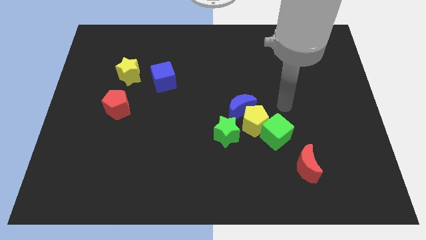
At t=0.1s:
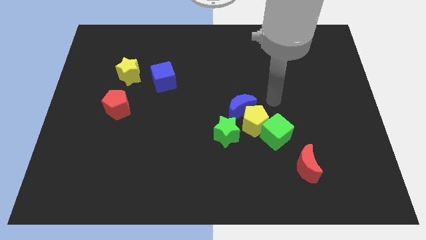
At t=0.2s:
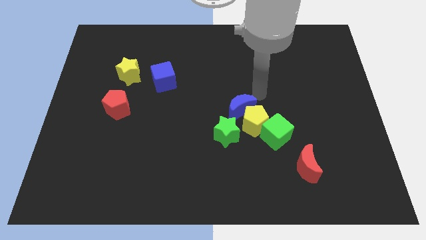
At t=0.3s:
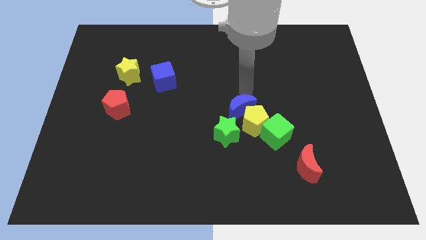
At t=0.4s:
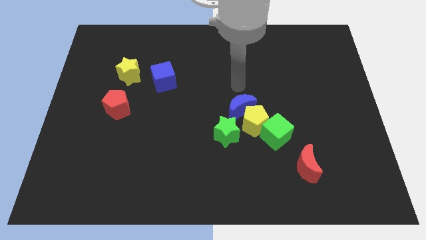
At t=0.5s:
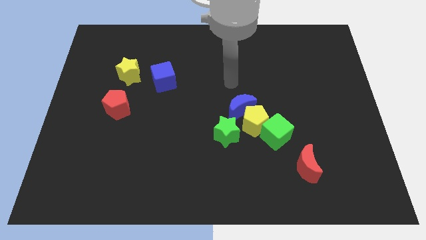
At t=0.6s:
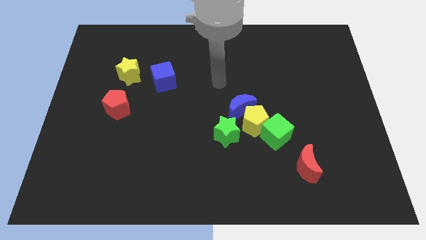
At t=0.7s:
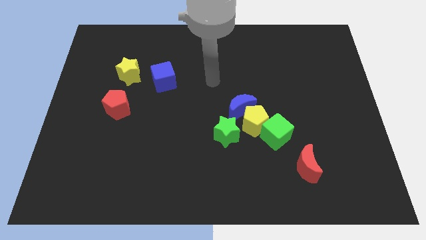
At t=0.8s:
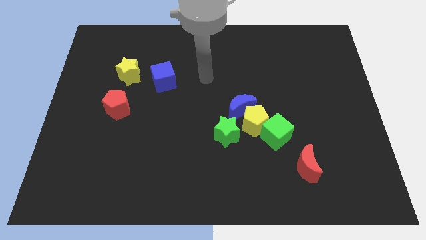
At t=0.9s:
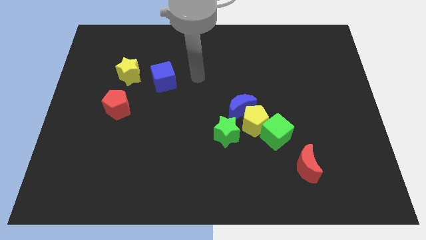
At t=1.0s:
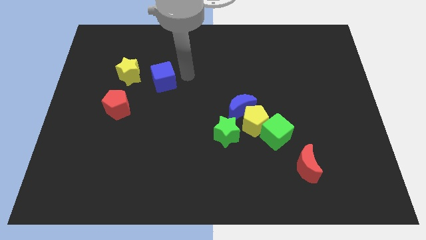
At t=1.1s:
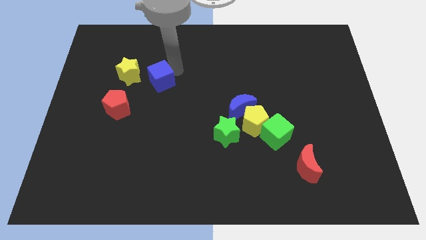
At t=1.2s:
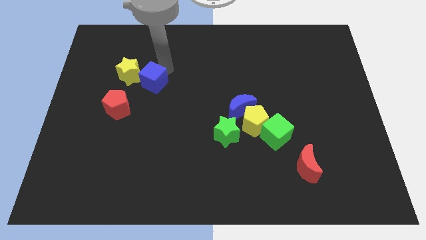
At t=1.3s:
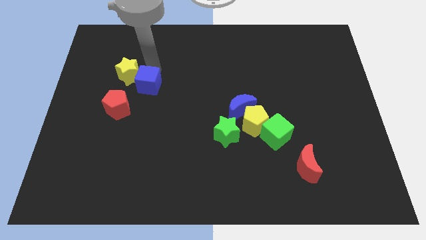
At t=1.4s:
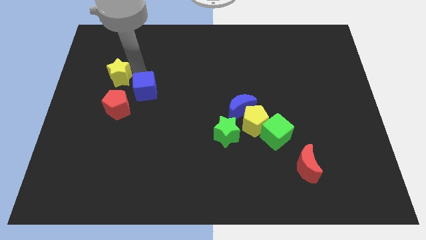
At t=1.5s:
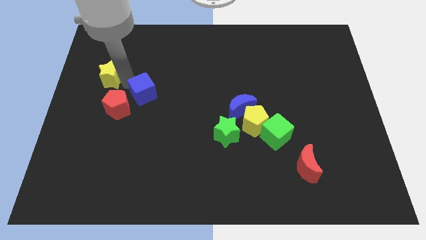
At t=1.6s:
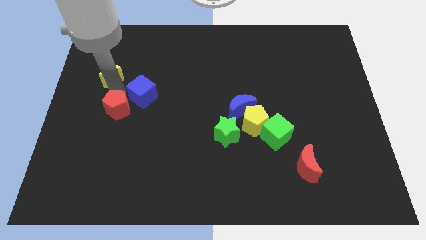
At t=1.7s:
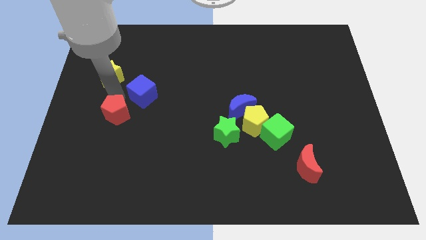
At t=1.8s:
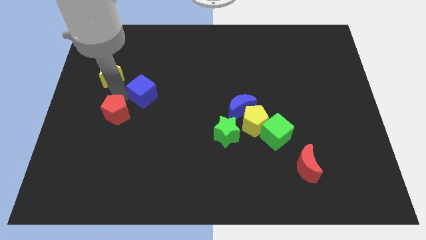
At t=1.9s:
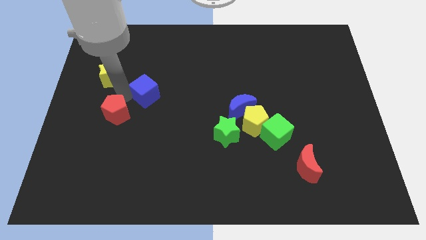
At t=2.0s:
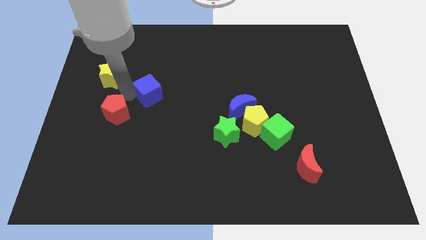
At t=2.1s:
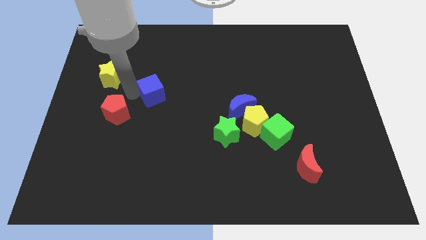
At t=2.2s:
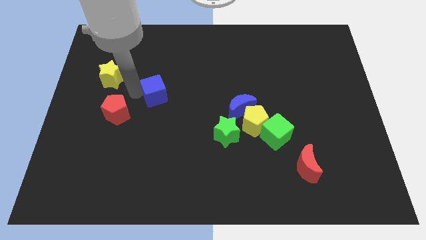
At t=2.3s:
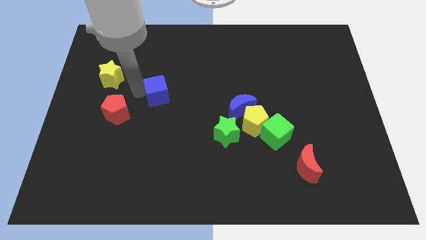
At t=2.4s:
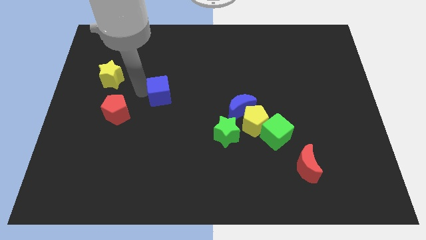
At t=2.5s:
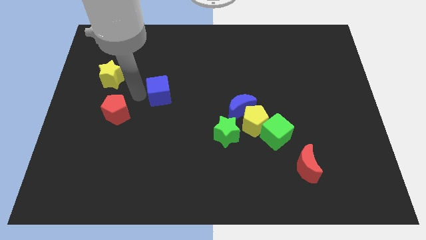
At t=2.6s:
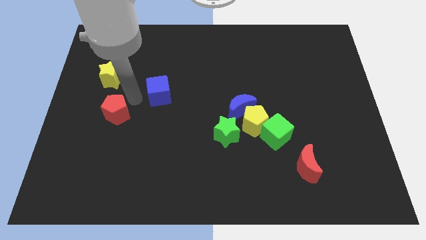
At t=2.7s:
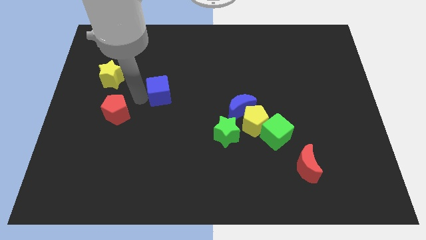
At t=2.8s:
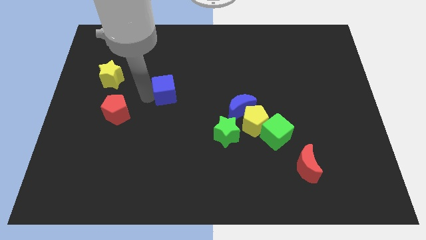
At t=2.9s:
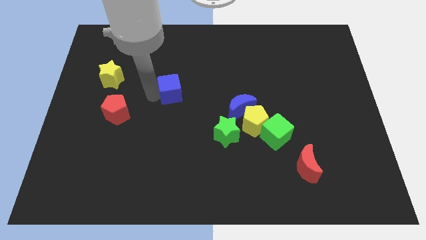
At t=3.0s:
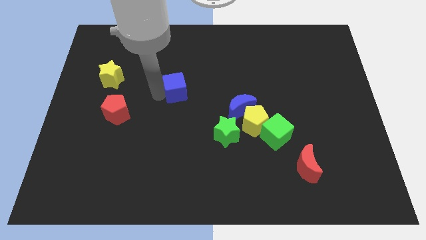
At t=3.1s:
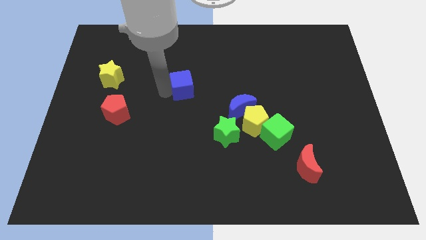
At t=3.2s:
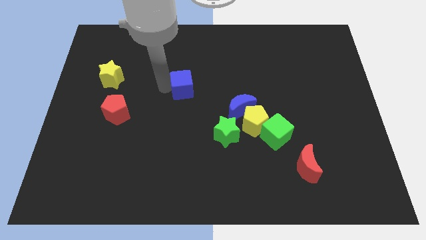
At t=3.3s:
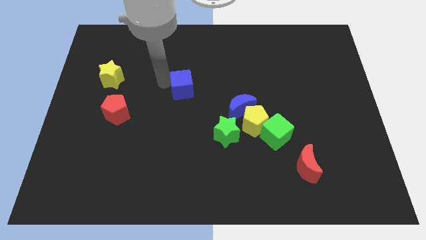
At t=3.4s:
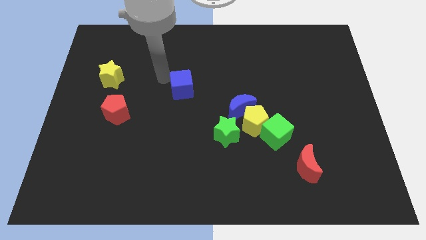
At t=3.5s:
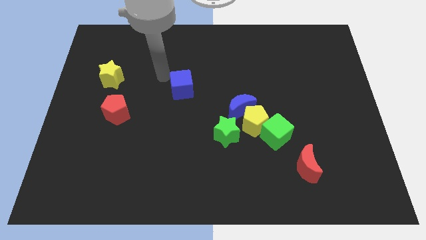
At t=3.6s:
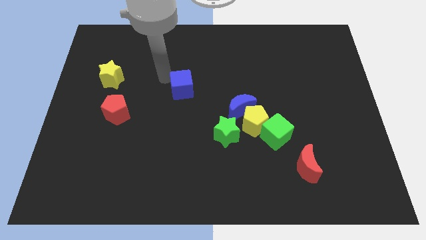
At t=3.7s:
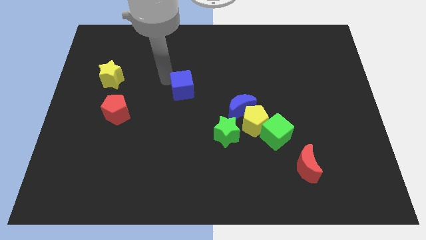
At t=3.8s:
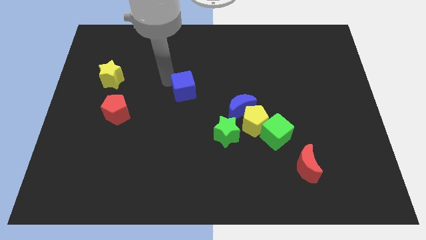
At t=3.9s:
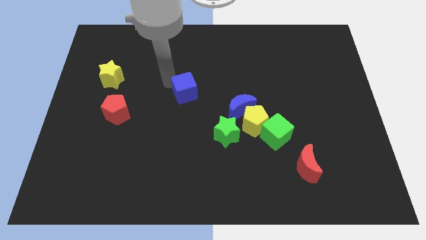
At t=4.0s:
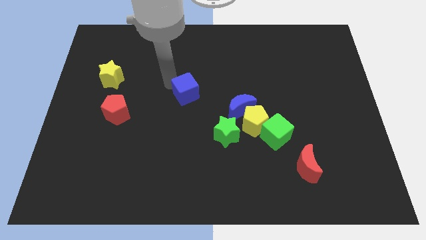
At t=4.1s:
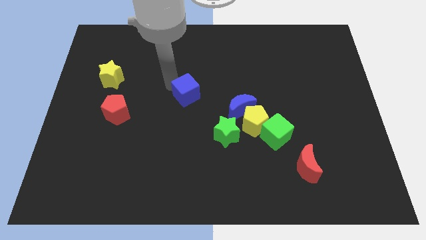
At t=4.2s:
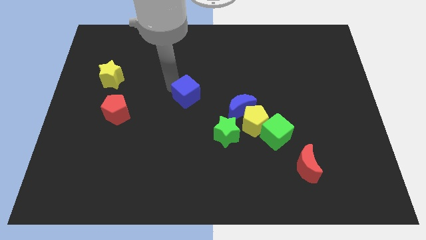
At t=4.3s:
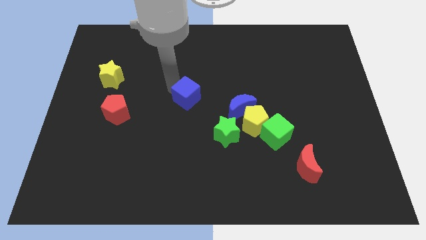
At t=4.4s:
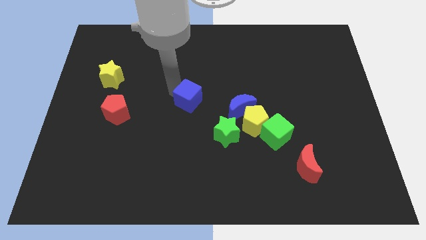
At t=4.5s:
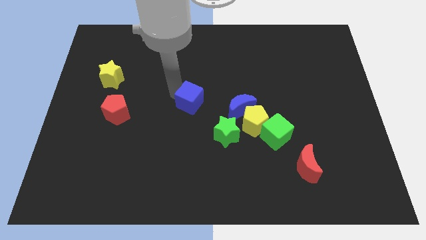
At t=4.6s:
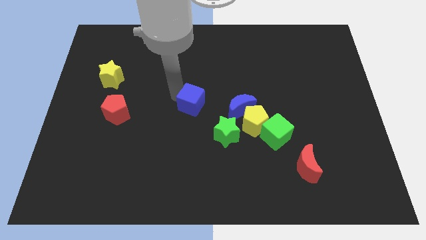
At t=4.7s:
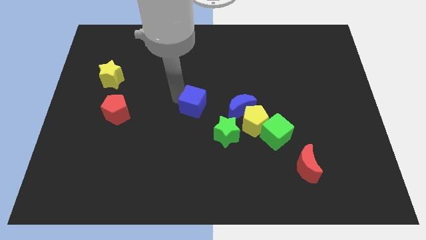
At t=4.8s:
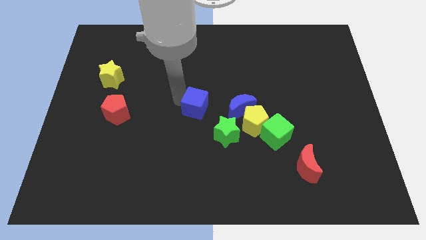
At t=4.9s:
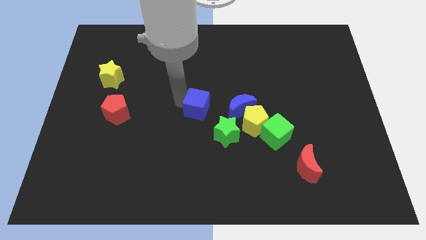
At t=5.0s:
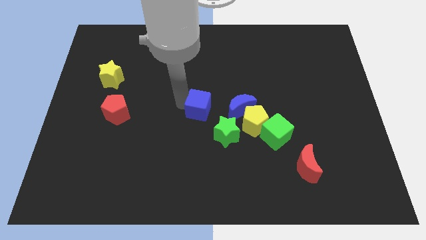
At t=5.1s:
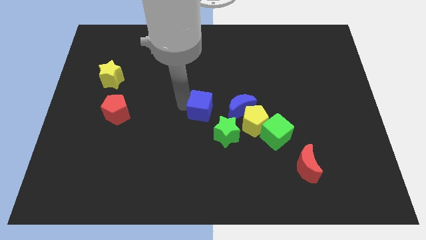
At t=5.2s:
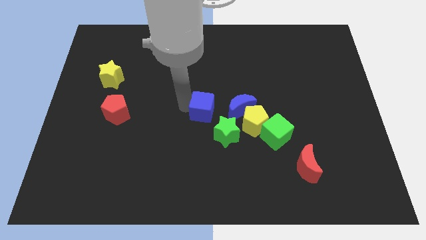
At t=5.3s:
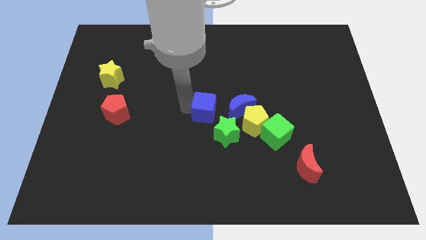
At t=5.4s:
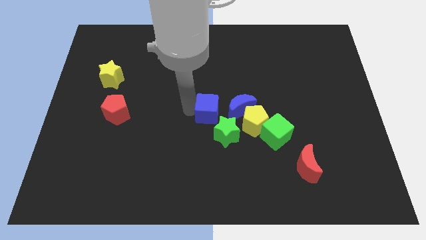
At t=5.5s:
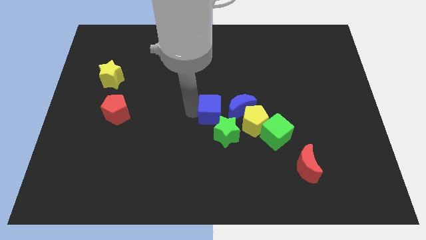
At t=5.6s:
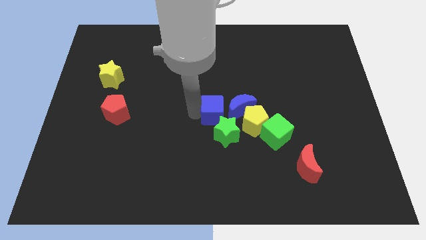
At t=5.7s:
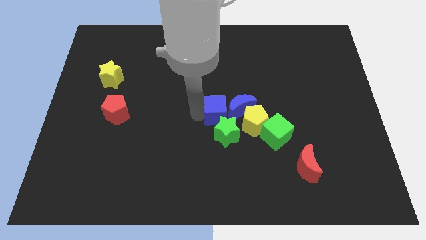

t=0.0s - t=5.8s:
move the blue cube to the blue moon

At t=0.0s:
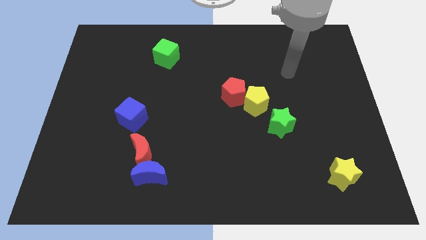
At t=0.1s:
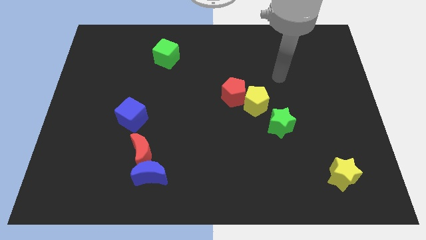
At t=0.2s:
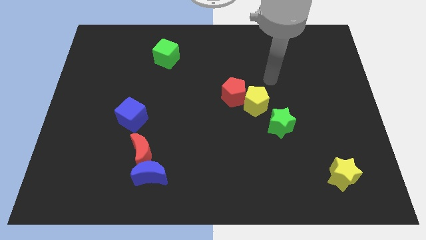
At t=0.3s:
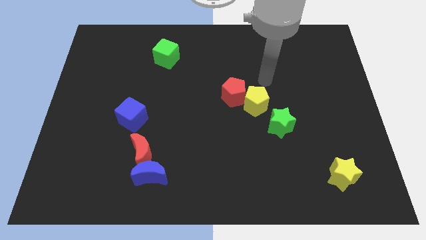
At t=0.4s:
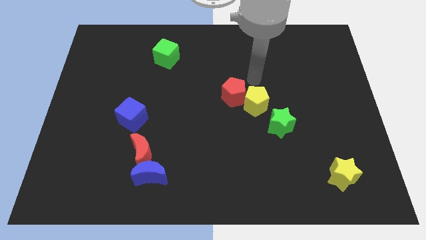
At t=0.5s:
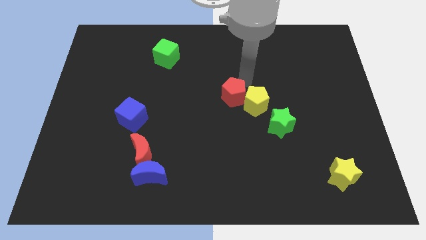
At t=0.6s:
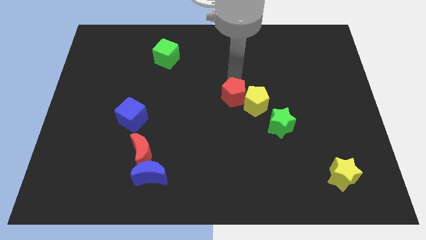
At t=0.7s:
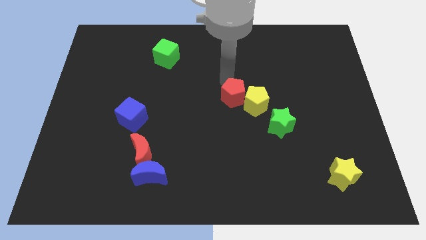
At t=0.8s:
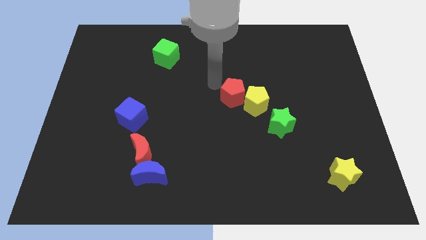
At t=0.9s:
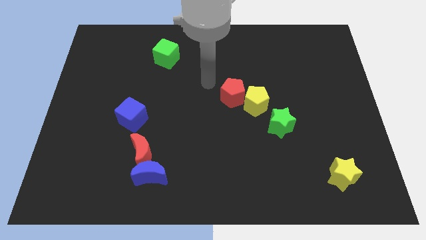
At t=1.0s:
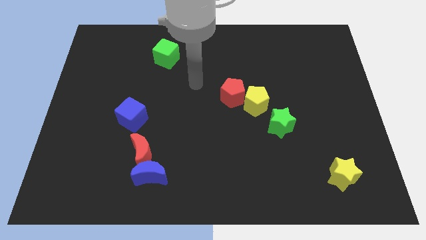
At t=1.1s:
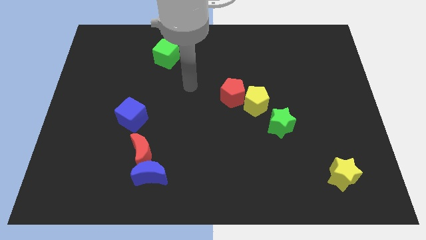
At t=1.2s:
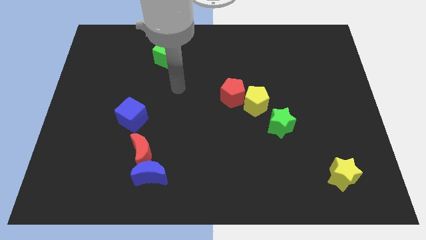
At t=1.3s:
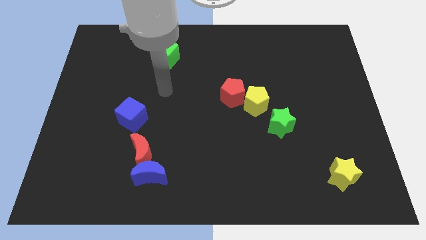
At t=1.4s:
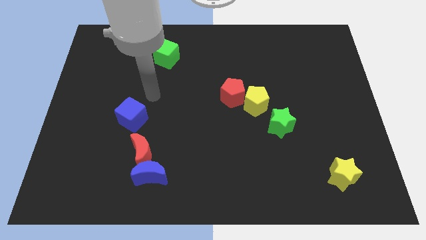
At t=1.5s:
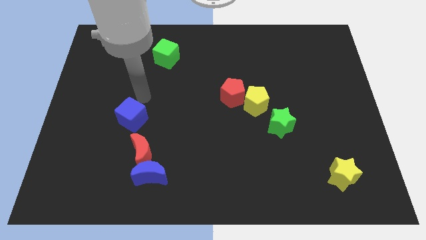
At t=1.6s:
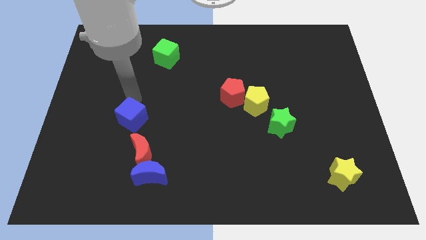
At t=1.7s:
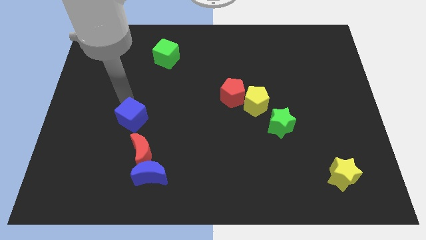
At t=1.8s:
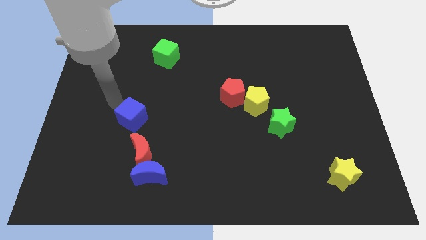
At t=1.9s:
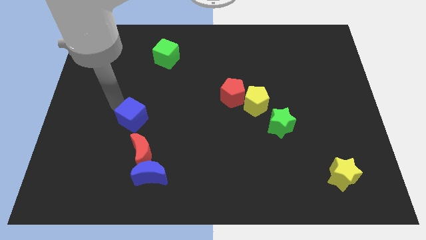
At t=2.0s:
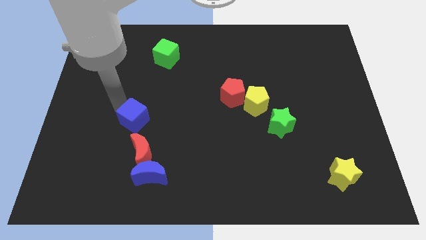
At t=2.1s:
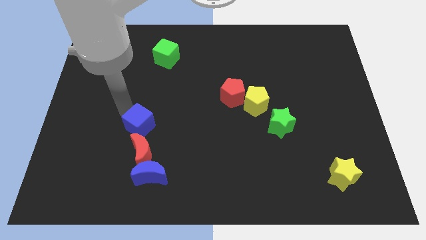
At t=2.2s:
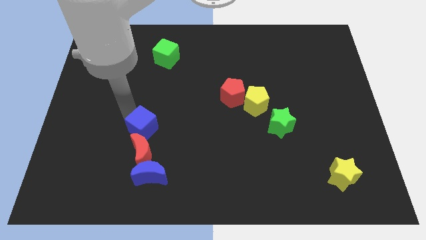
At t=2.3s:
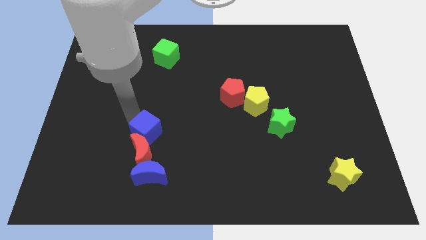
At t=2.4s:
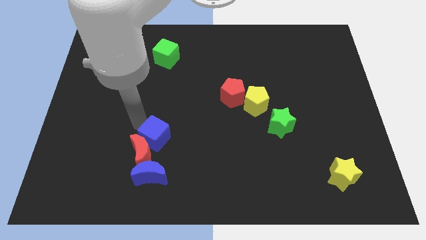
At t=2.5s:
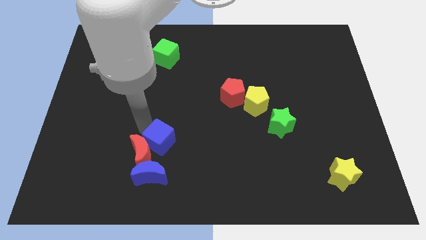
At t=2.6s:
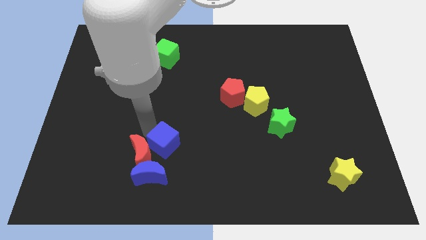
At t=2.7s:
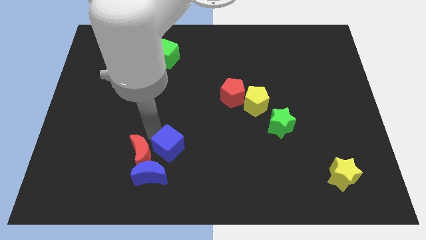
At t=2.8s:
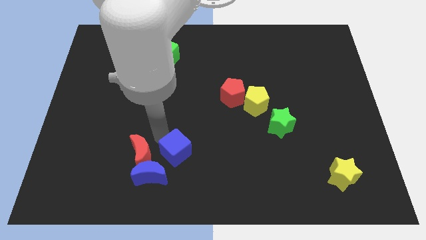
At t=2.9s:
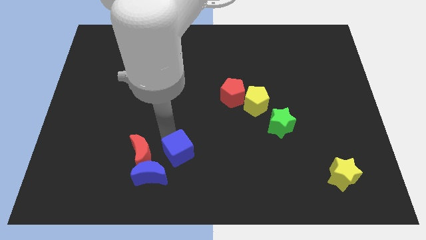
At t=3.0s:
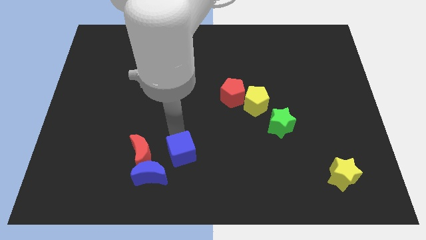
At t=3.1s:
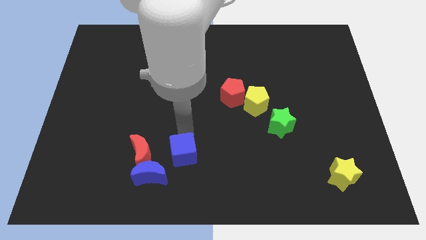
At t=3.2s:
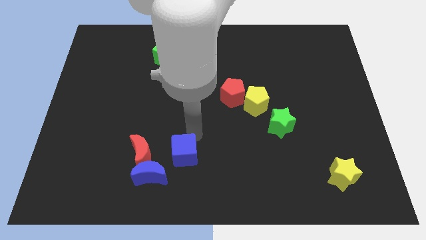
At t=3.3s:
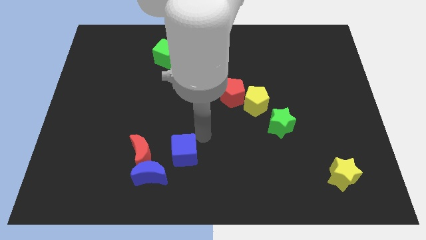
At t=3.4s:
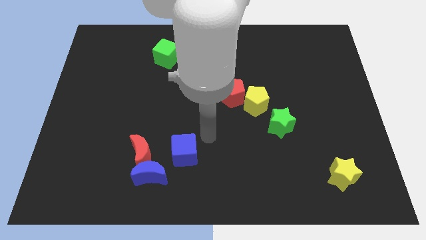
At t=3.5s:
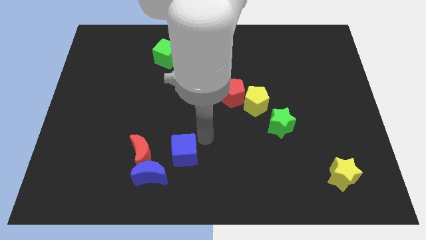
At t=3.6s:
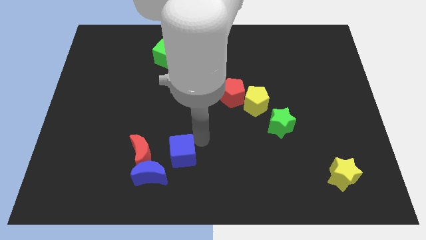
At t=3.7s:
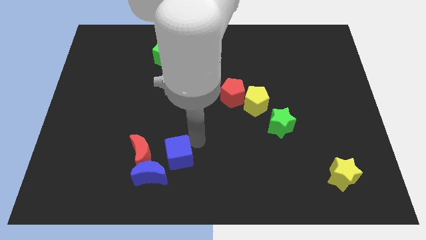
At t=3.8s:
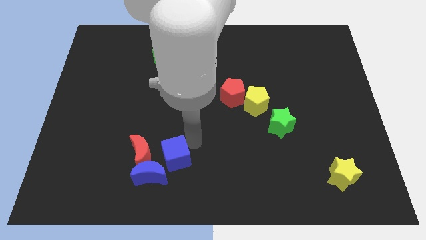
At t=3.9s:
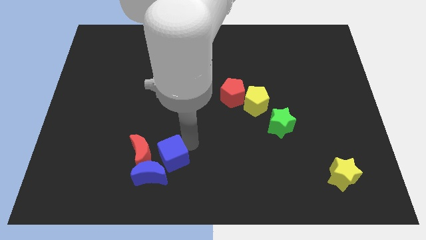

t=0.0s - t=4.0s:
move the blue cube close to the blue moon
